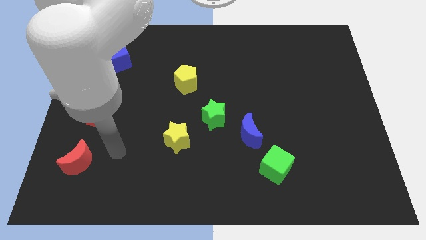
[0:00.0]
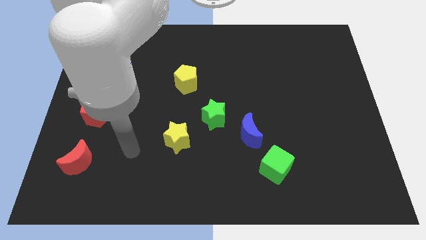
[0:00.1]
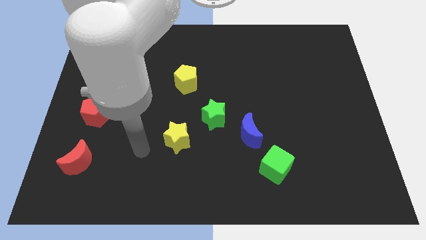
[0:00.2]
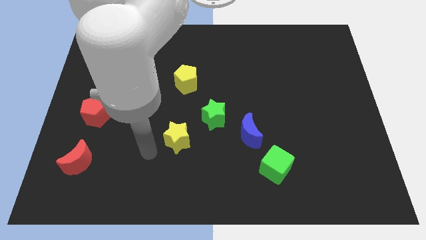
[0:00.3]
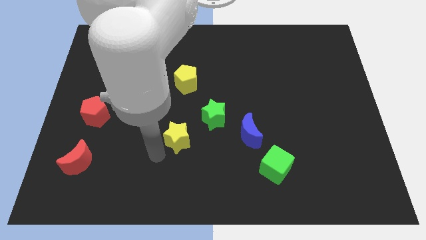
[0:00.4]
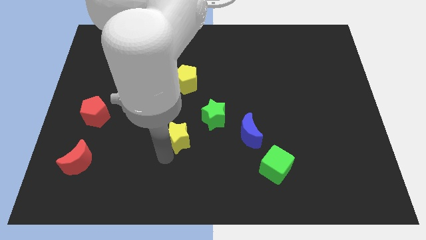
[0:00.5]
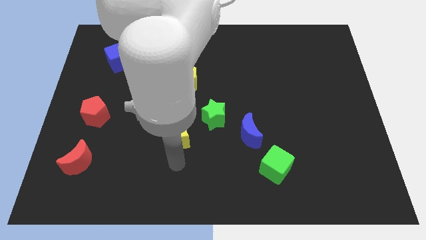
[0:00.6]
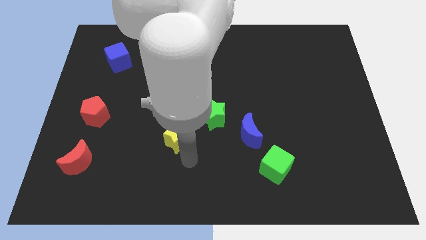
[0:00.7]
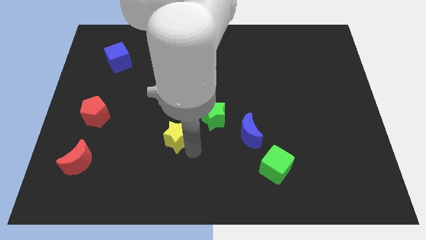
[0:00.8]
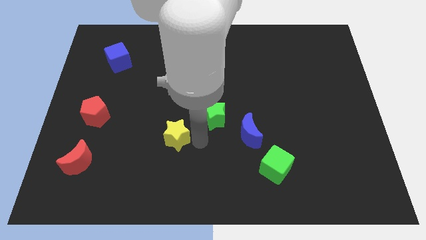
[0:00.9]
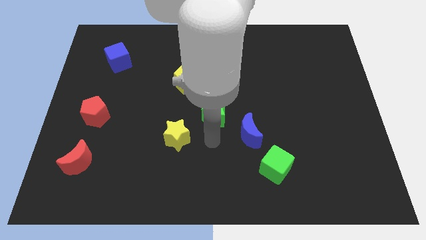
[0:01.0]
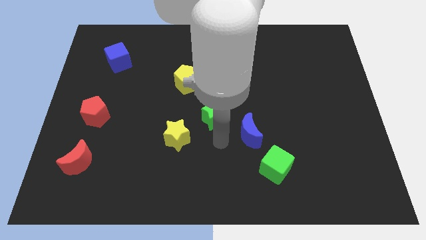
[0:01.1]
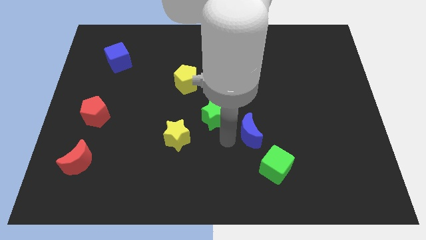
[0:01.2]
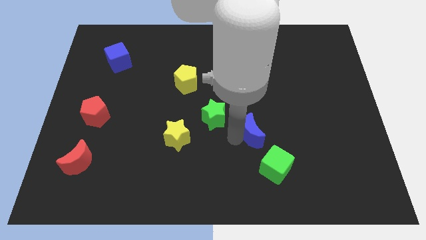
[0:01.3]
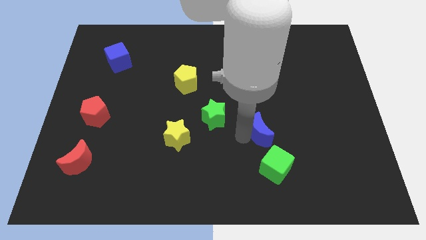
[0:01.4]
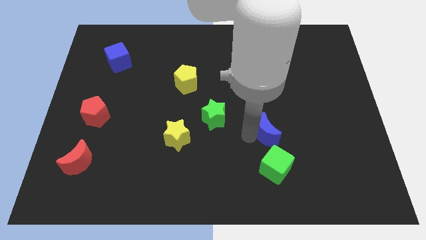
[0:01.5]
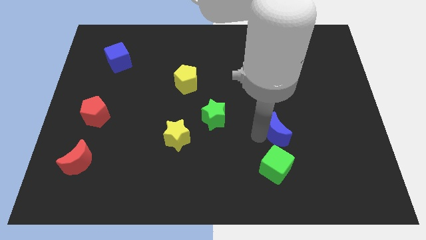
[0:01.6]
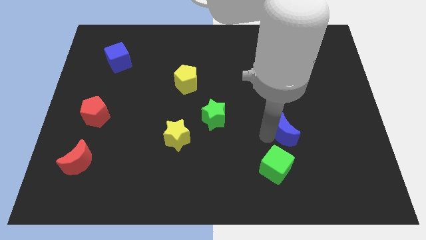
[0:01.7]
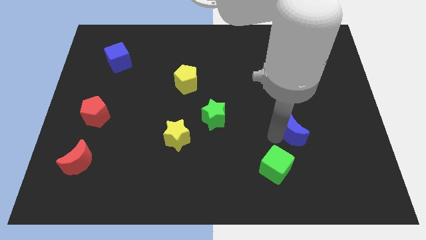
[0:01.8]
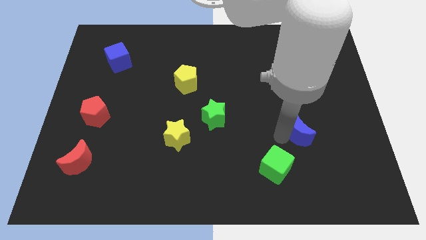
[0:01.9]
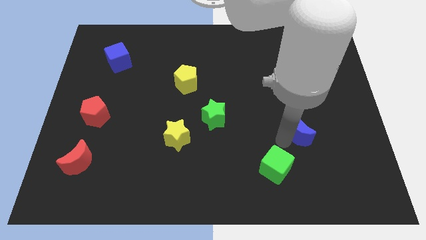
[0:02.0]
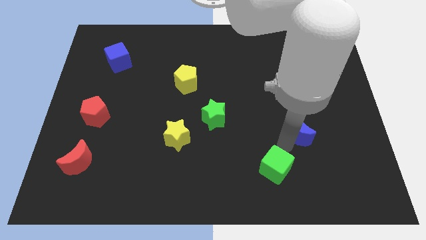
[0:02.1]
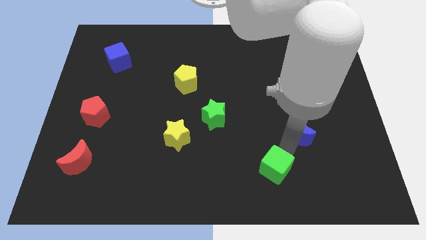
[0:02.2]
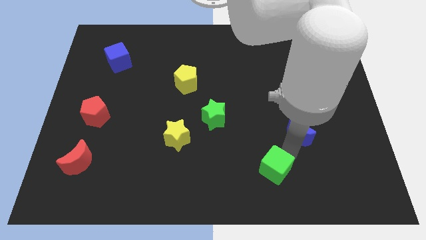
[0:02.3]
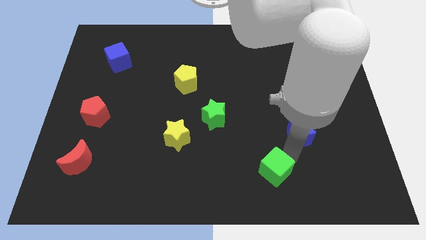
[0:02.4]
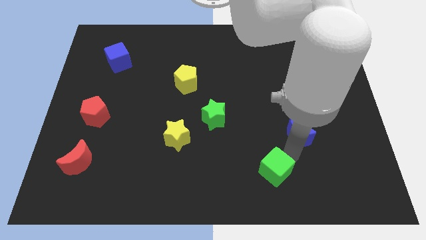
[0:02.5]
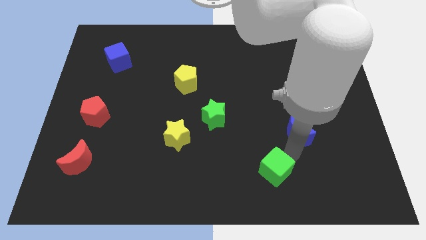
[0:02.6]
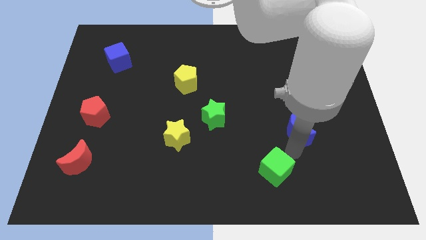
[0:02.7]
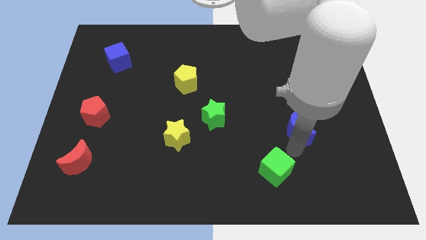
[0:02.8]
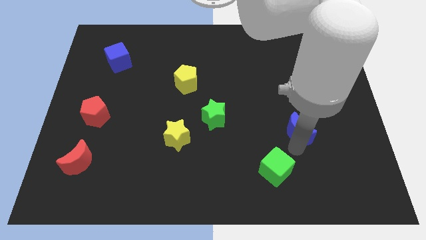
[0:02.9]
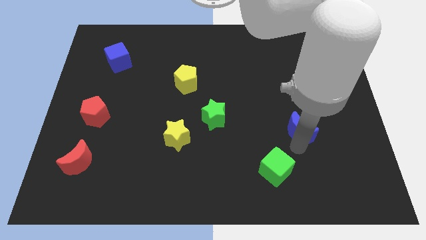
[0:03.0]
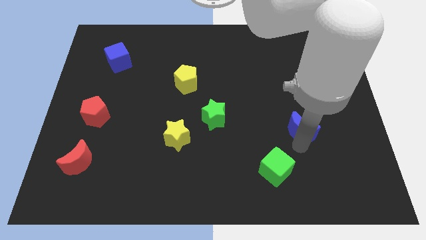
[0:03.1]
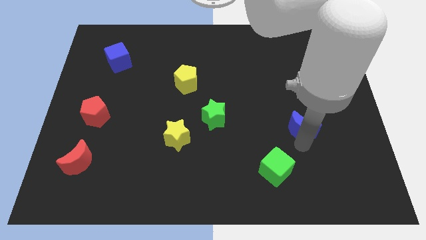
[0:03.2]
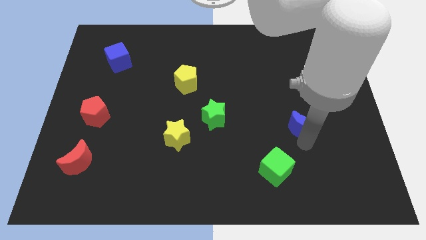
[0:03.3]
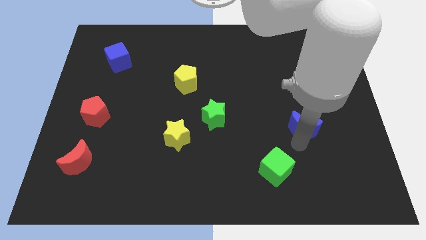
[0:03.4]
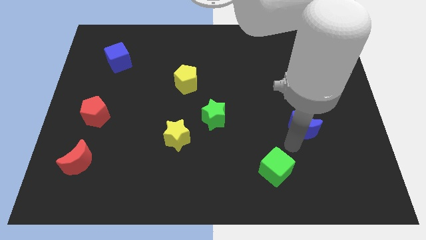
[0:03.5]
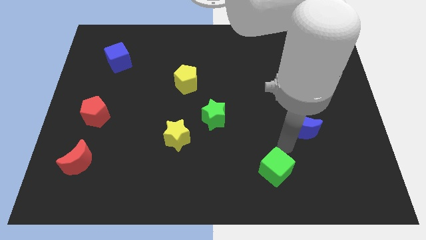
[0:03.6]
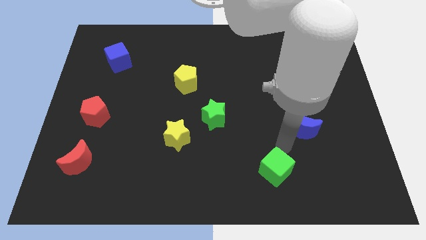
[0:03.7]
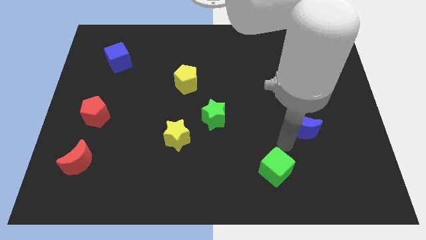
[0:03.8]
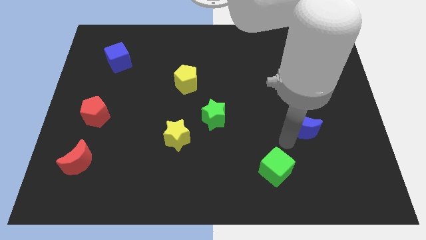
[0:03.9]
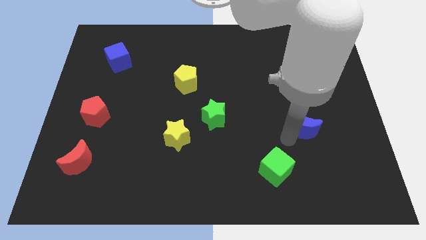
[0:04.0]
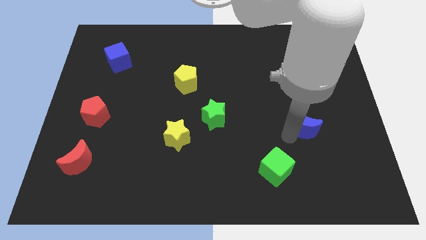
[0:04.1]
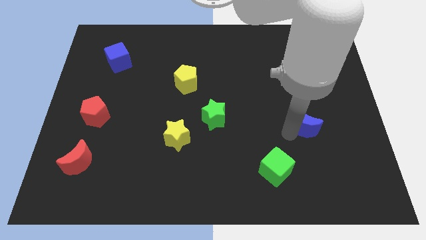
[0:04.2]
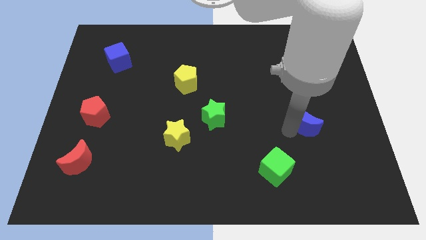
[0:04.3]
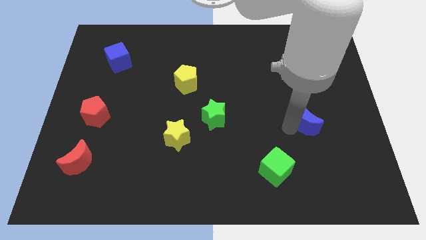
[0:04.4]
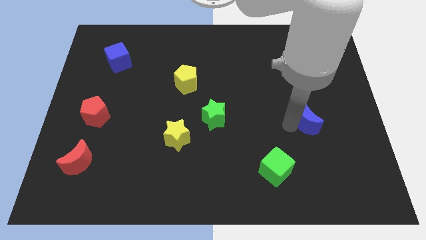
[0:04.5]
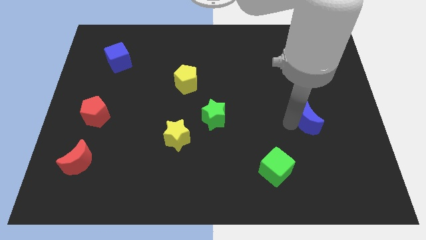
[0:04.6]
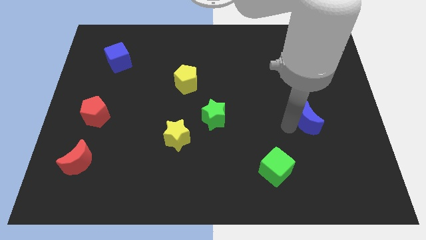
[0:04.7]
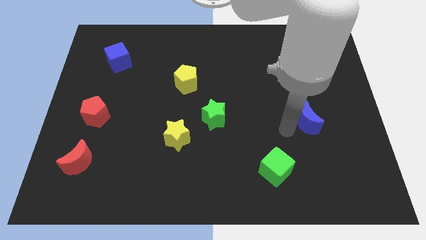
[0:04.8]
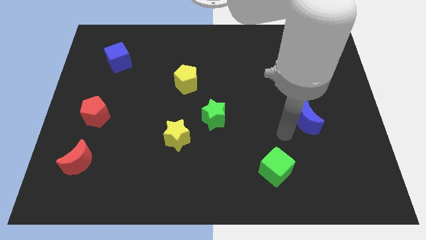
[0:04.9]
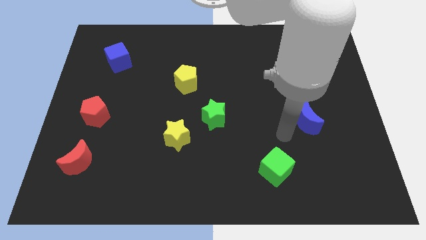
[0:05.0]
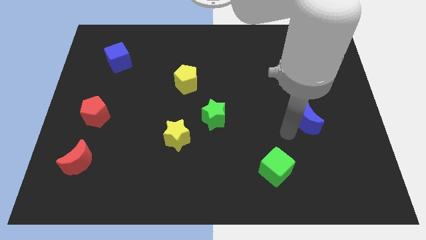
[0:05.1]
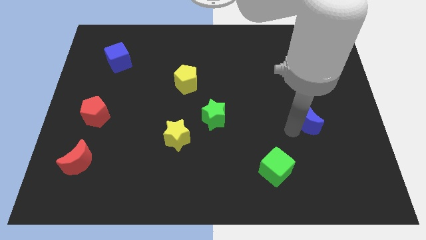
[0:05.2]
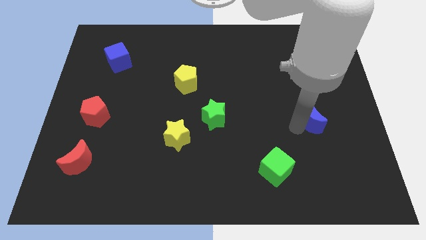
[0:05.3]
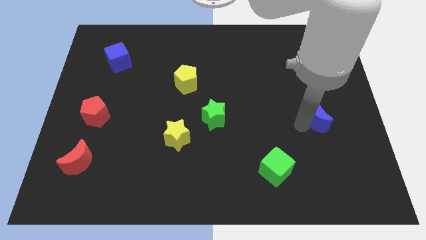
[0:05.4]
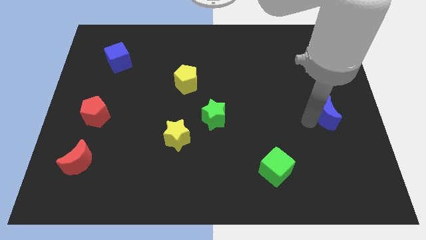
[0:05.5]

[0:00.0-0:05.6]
slide the blue moon to the right side

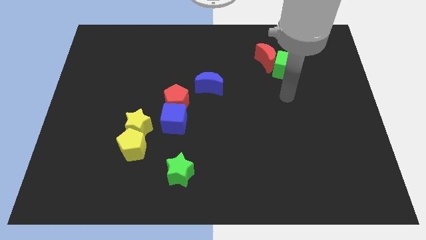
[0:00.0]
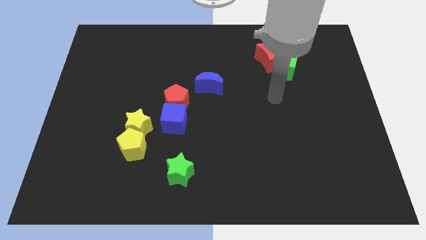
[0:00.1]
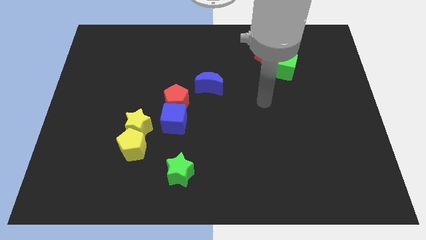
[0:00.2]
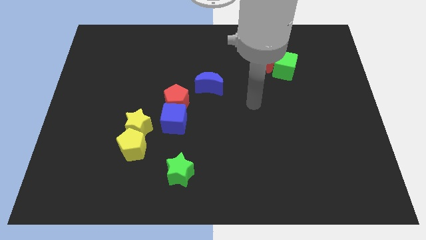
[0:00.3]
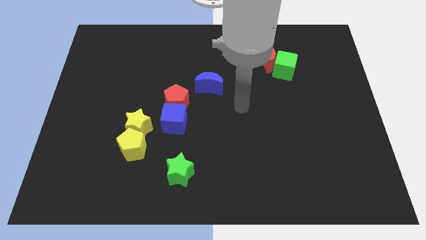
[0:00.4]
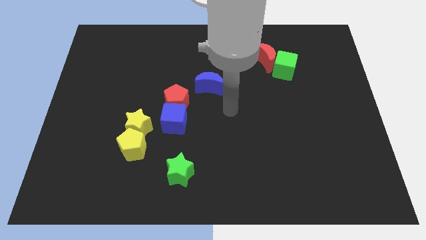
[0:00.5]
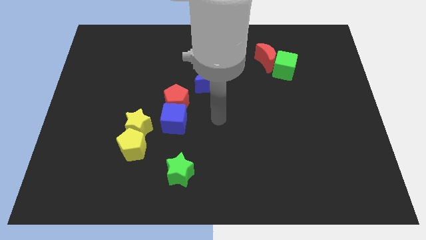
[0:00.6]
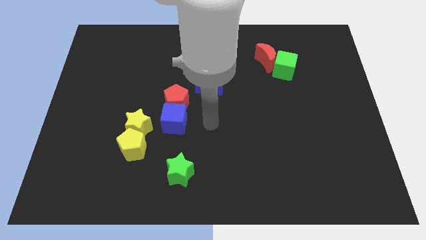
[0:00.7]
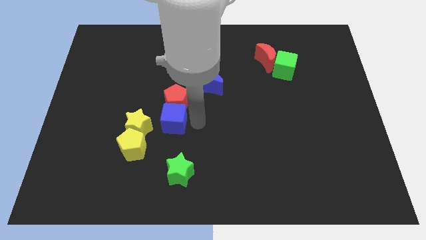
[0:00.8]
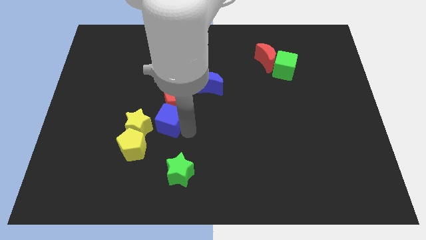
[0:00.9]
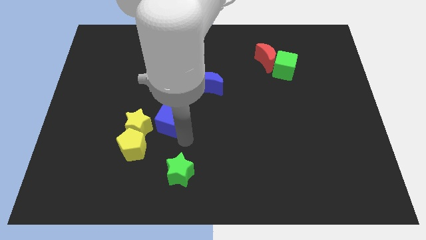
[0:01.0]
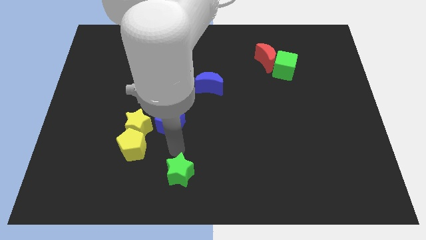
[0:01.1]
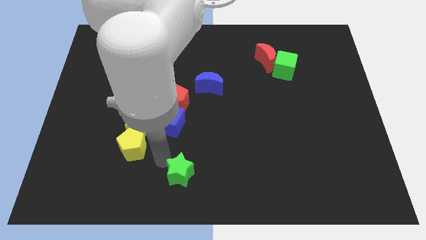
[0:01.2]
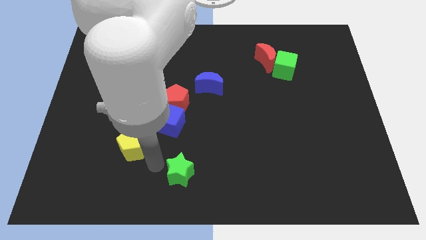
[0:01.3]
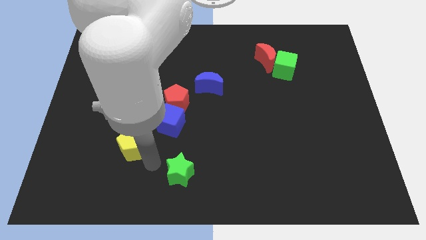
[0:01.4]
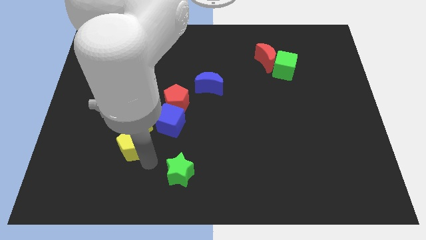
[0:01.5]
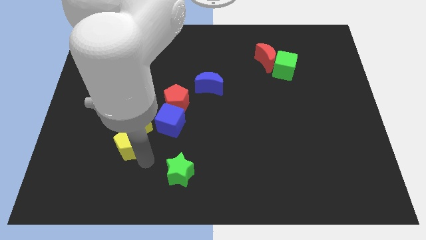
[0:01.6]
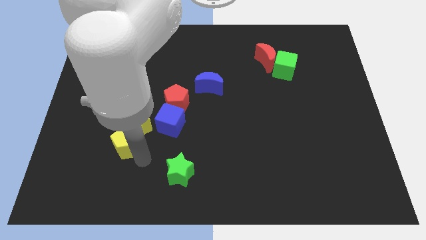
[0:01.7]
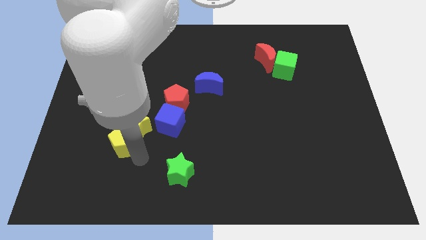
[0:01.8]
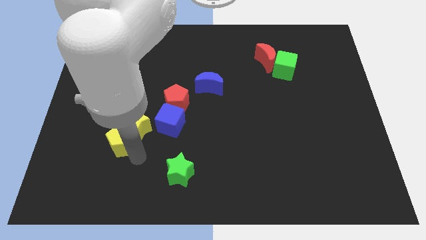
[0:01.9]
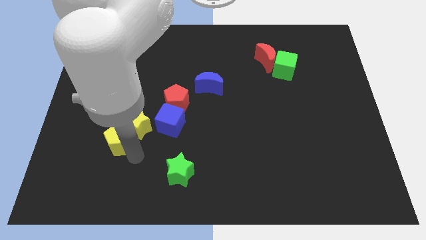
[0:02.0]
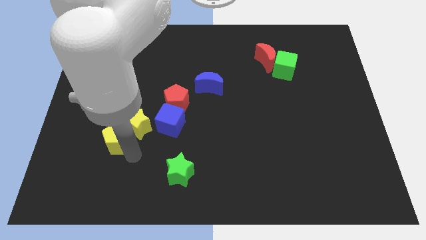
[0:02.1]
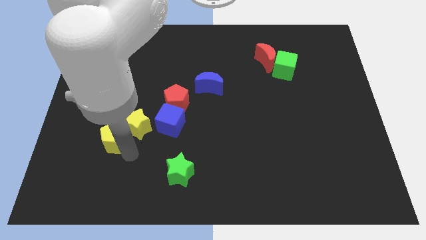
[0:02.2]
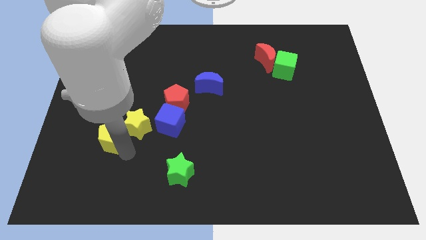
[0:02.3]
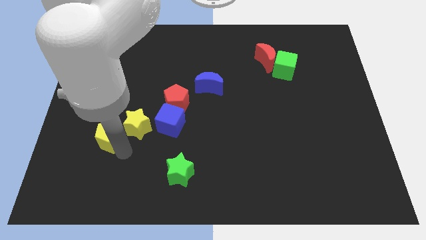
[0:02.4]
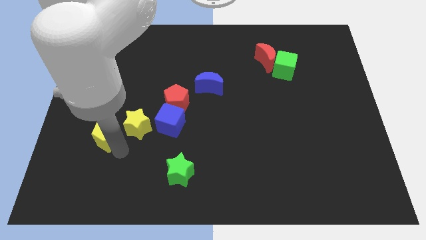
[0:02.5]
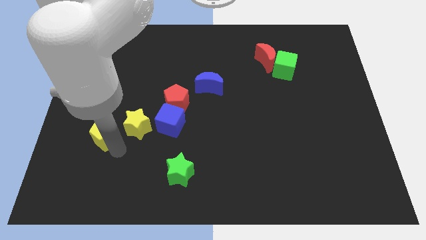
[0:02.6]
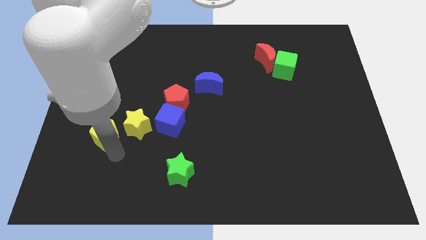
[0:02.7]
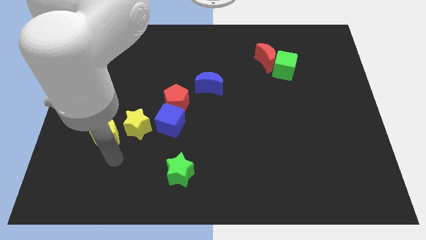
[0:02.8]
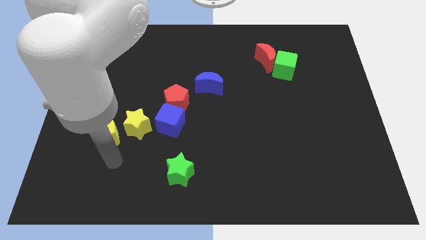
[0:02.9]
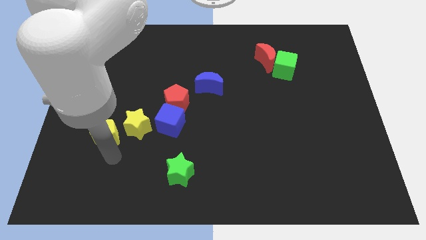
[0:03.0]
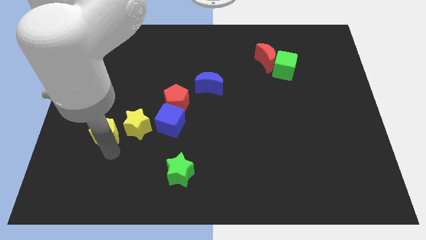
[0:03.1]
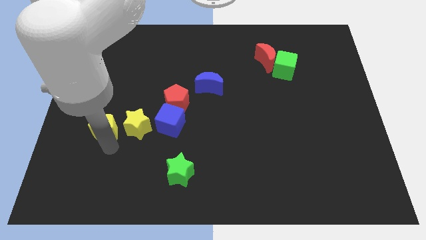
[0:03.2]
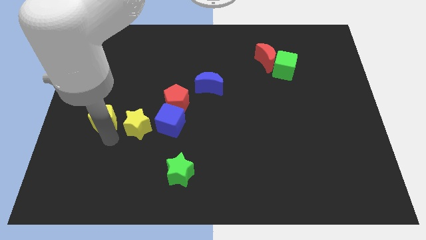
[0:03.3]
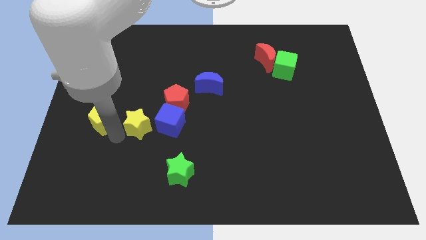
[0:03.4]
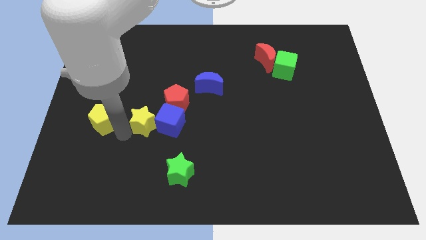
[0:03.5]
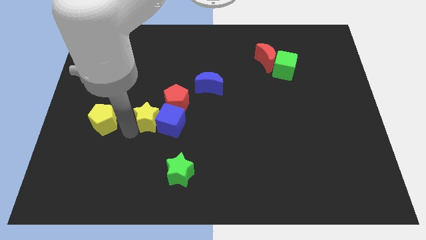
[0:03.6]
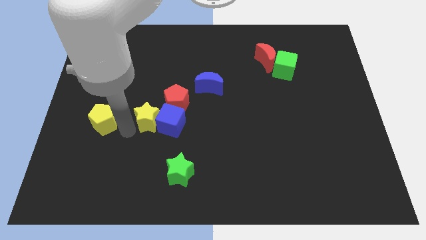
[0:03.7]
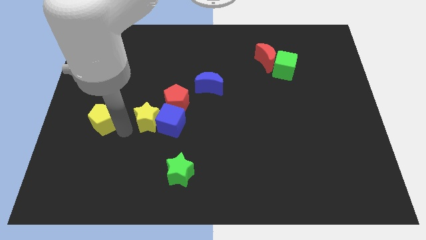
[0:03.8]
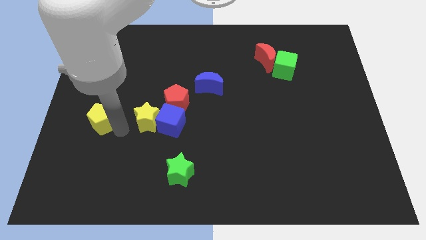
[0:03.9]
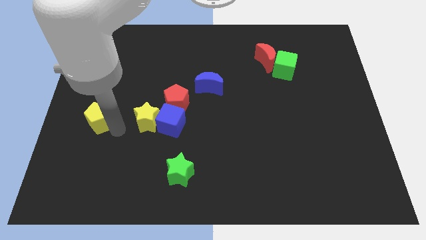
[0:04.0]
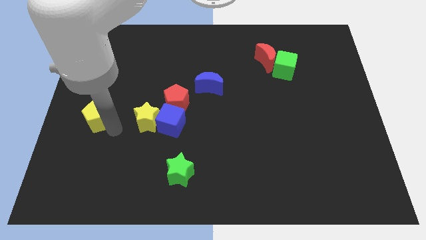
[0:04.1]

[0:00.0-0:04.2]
push the yellow pentagon to the left side of the board
